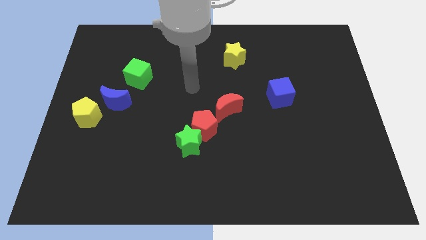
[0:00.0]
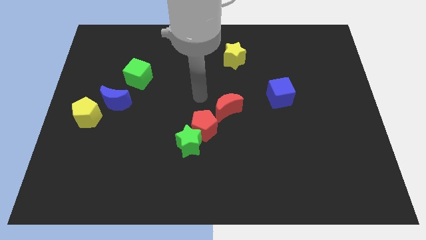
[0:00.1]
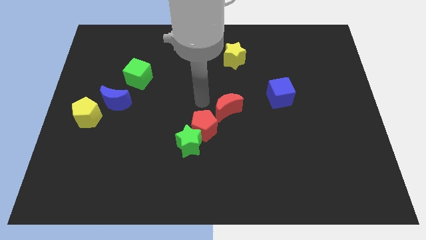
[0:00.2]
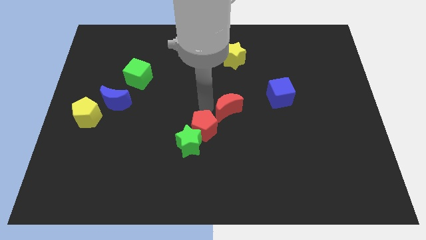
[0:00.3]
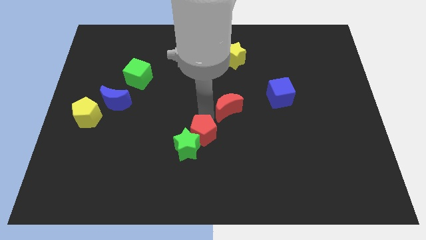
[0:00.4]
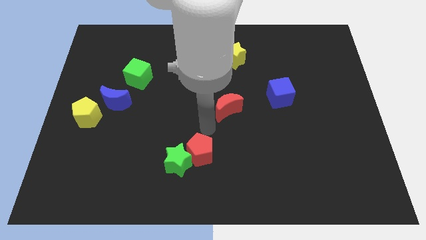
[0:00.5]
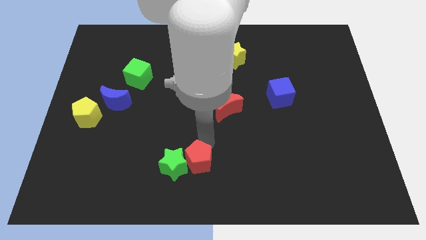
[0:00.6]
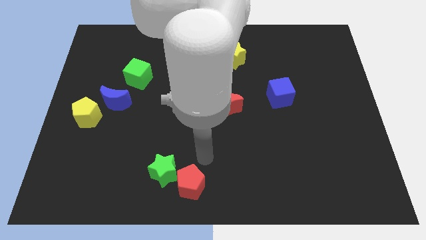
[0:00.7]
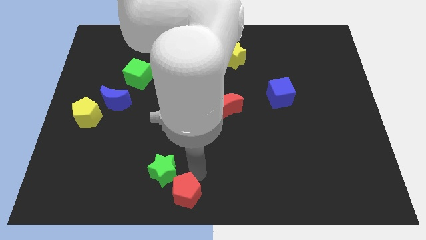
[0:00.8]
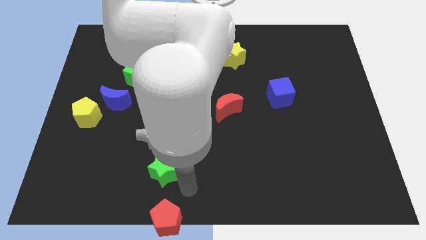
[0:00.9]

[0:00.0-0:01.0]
pull the green star apart from the red pentagon

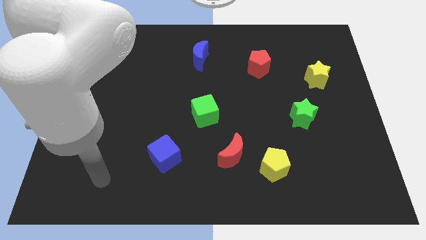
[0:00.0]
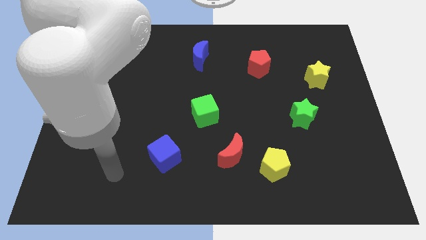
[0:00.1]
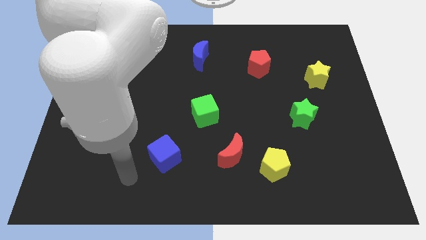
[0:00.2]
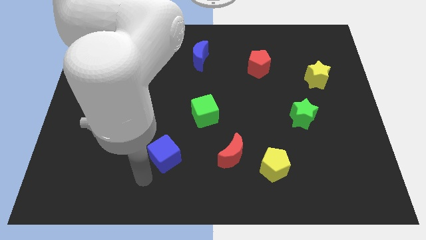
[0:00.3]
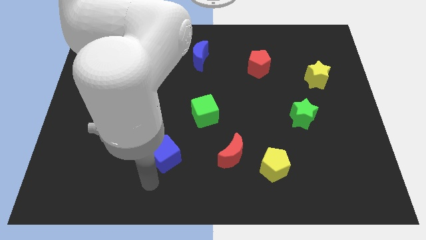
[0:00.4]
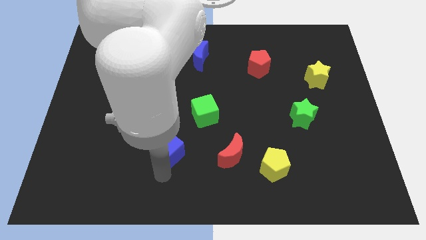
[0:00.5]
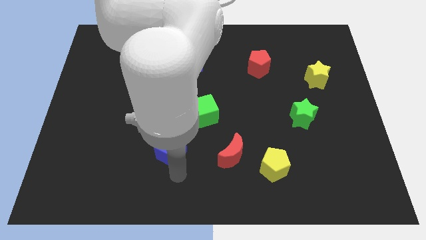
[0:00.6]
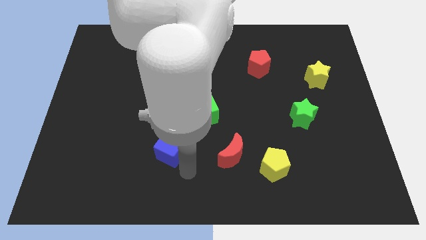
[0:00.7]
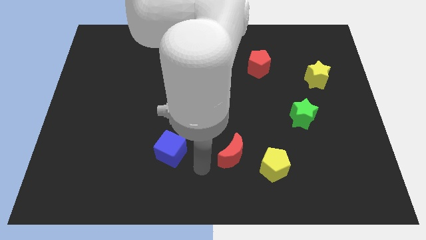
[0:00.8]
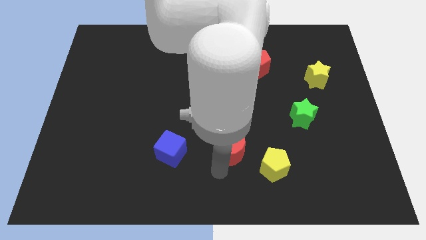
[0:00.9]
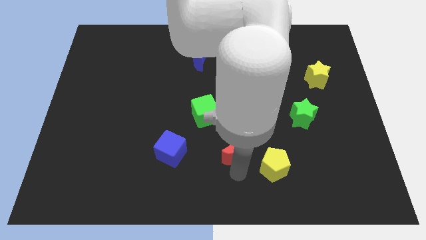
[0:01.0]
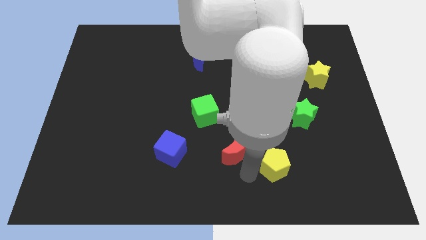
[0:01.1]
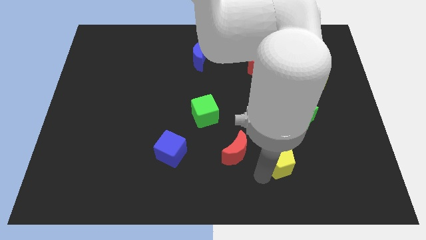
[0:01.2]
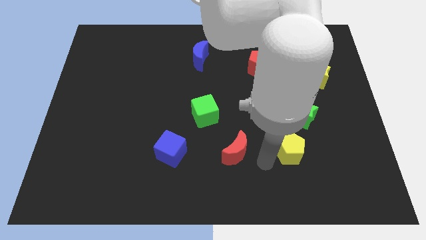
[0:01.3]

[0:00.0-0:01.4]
separate the red moon from the yellow pentagon

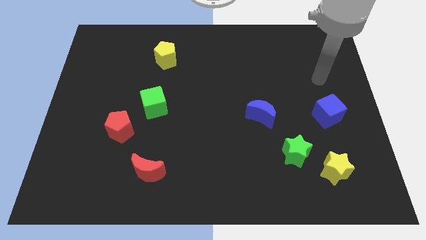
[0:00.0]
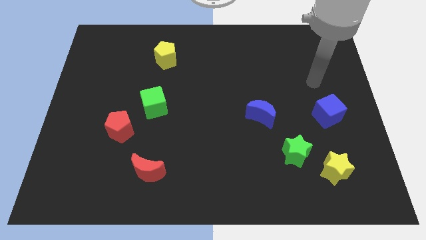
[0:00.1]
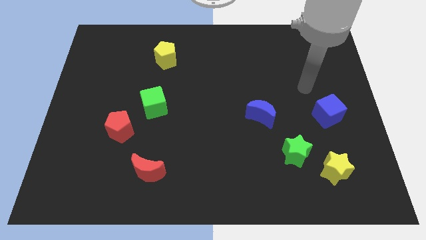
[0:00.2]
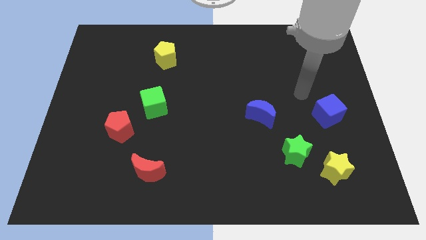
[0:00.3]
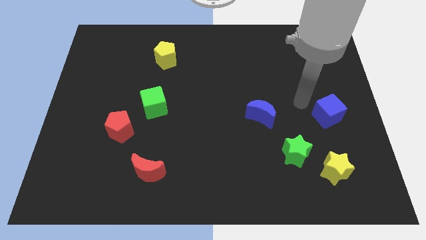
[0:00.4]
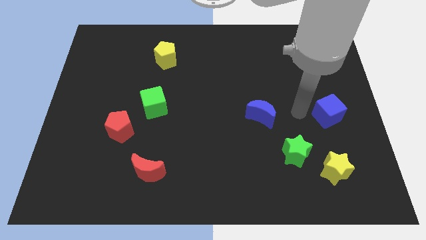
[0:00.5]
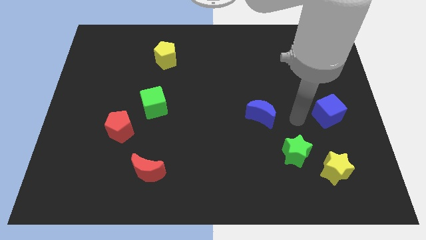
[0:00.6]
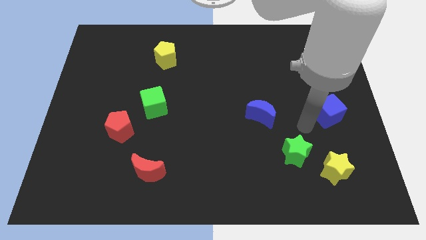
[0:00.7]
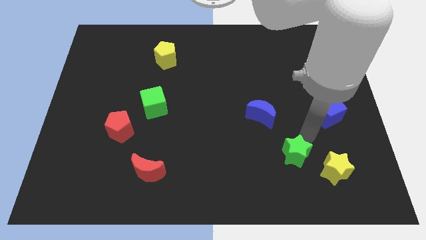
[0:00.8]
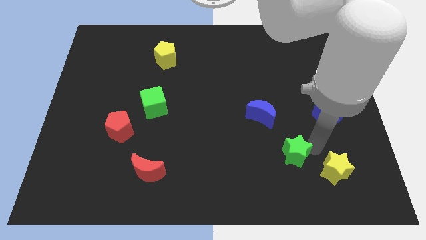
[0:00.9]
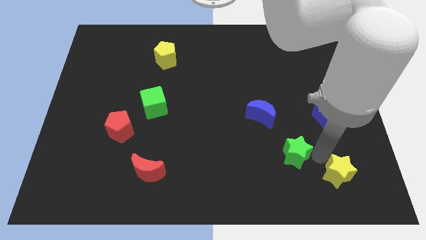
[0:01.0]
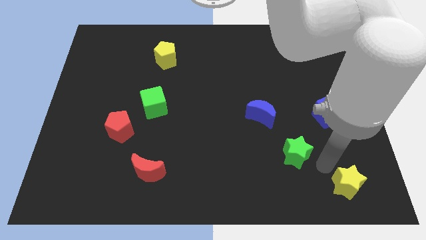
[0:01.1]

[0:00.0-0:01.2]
move the green star away from the yellow star

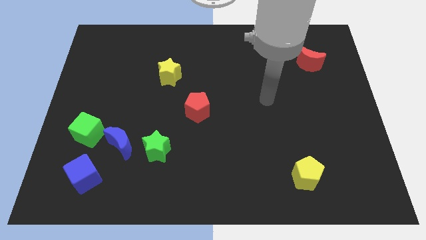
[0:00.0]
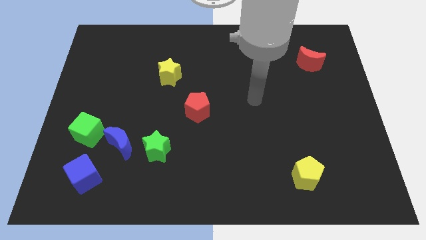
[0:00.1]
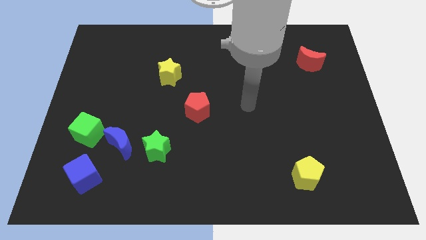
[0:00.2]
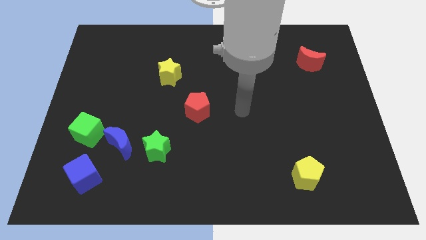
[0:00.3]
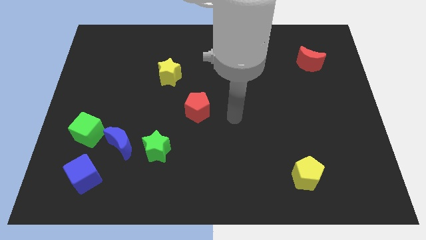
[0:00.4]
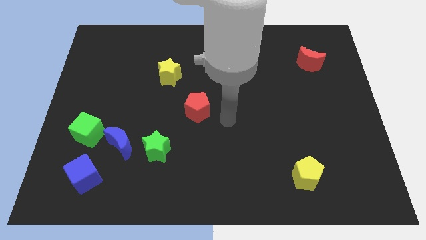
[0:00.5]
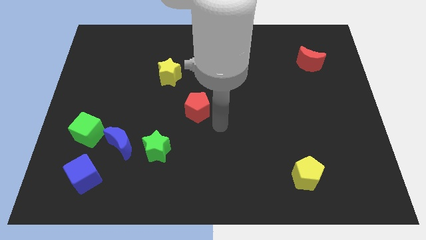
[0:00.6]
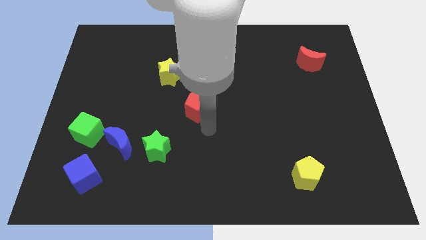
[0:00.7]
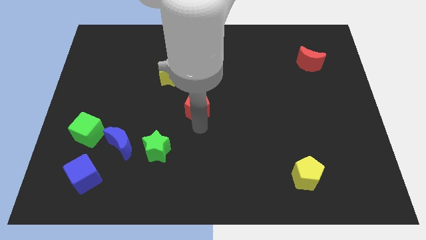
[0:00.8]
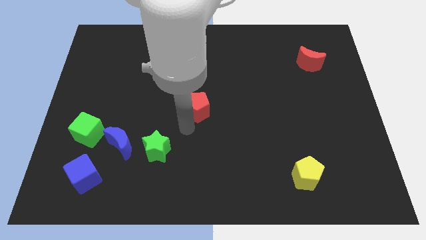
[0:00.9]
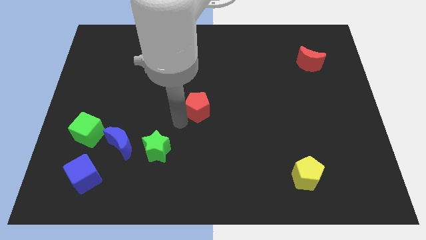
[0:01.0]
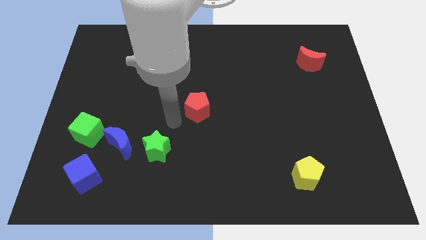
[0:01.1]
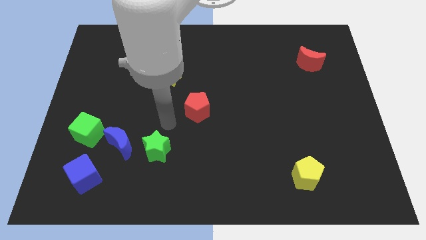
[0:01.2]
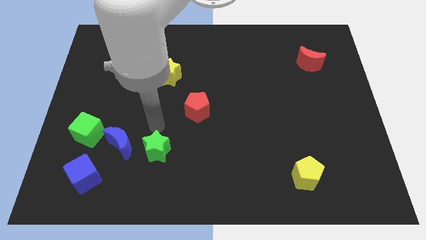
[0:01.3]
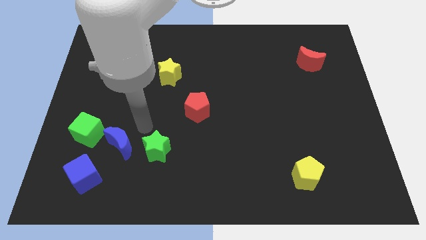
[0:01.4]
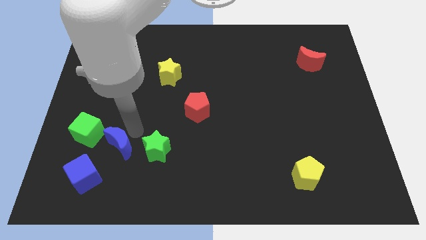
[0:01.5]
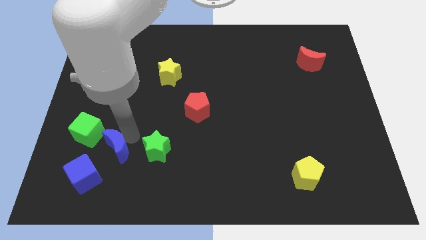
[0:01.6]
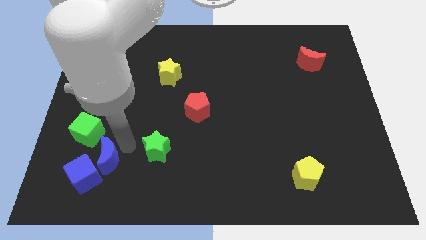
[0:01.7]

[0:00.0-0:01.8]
move the green star away from the blue moon

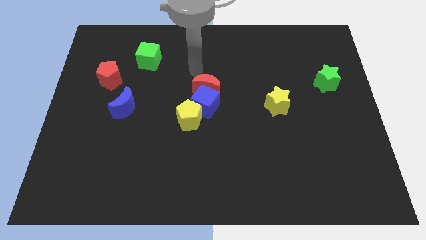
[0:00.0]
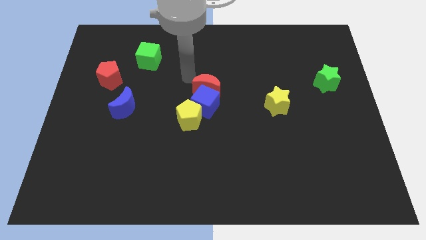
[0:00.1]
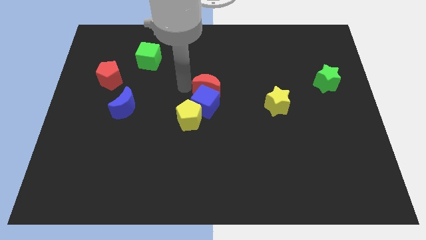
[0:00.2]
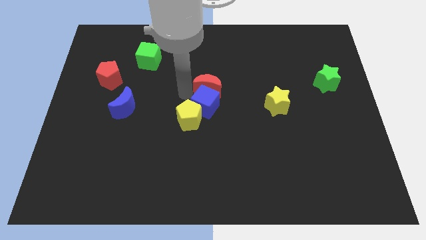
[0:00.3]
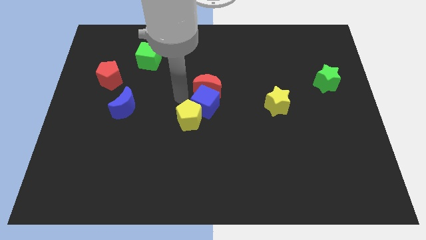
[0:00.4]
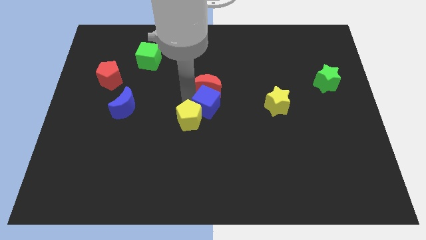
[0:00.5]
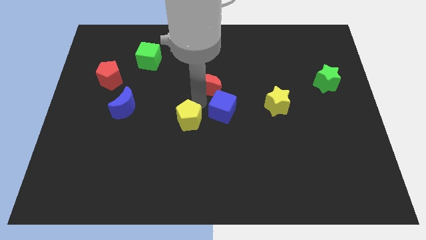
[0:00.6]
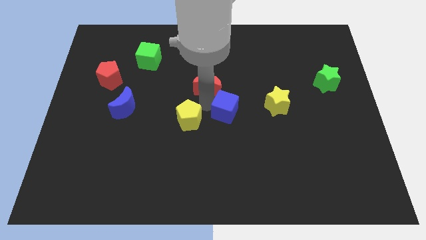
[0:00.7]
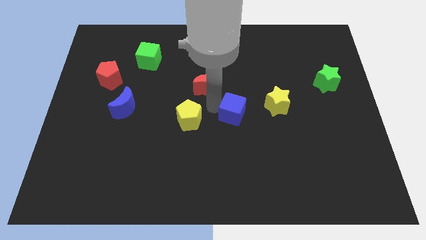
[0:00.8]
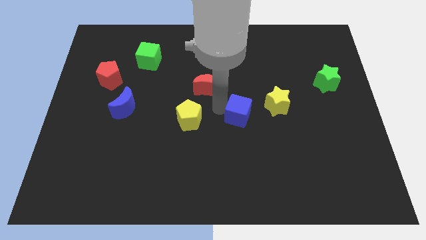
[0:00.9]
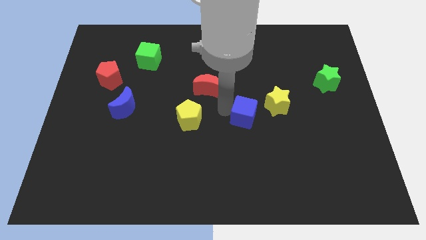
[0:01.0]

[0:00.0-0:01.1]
pull the blue cube apart from the red moon and yellow pentagon

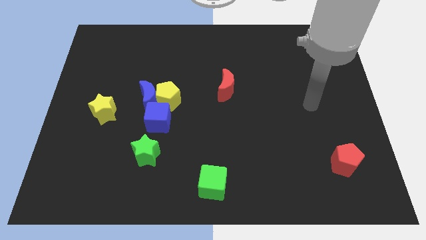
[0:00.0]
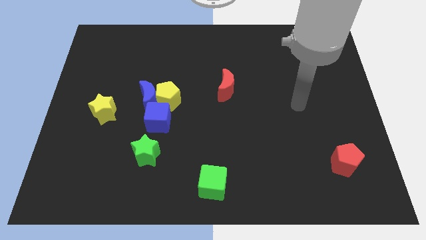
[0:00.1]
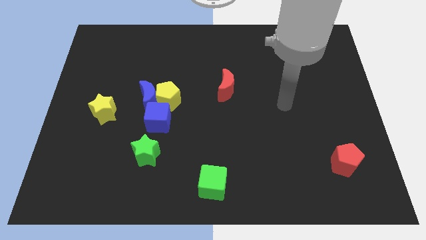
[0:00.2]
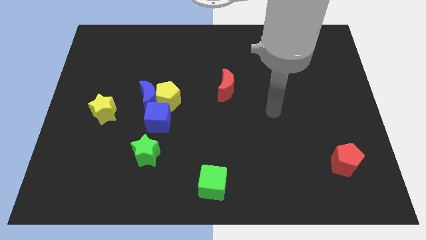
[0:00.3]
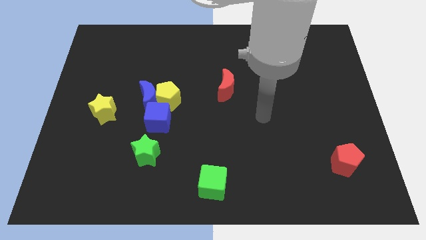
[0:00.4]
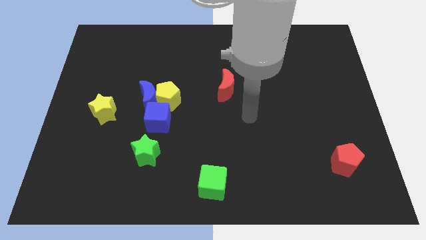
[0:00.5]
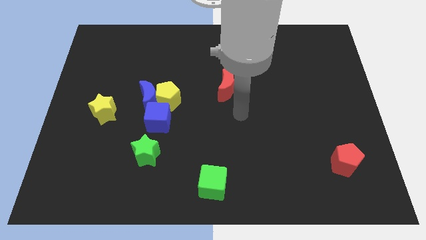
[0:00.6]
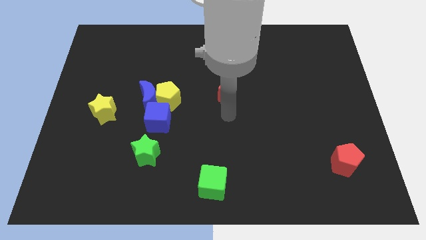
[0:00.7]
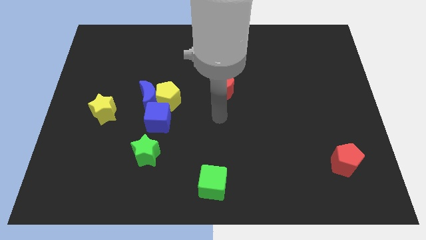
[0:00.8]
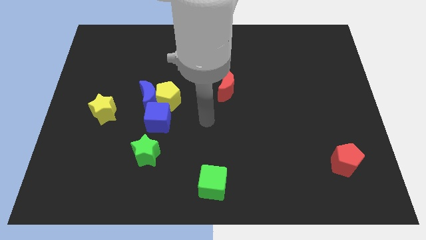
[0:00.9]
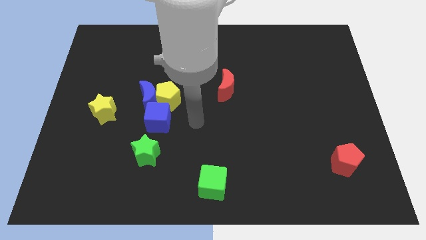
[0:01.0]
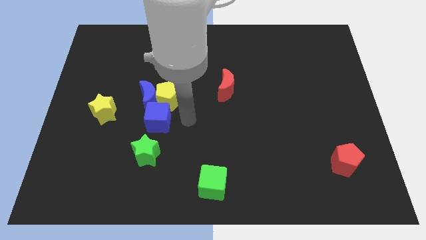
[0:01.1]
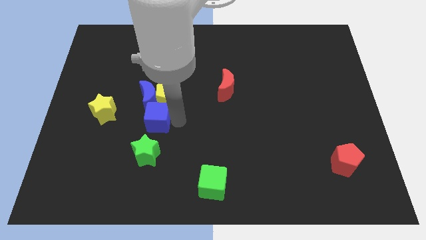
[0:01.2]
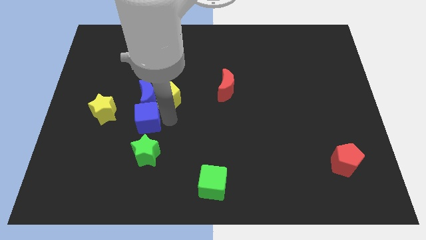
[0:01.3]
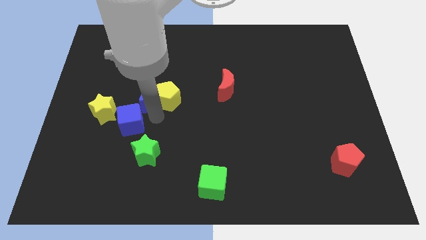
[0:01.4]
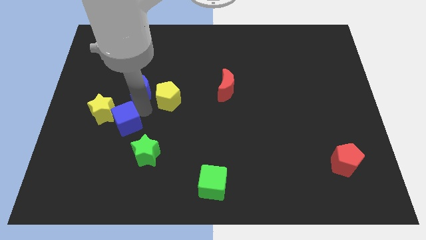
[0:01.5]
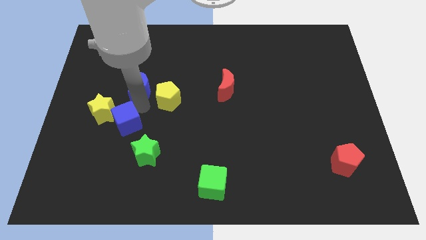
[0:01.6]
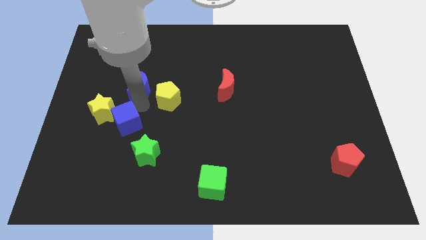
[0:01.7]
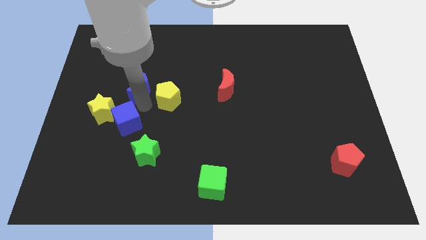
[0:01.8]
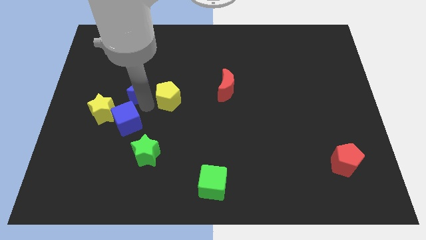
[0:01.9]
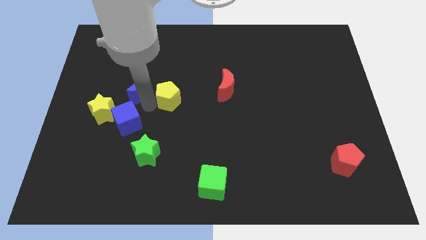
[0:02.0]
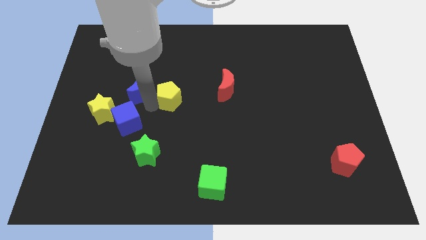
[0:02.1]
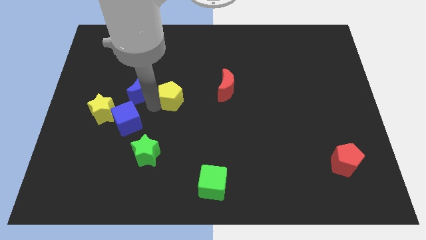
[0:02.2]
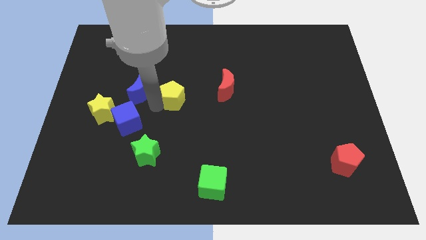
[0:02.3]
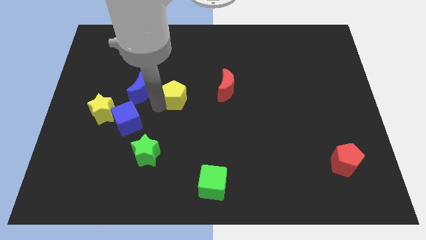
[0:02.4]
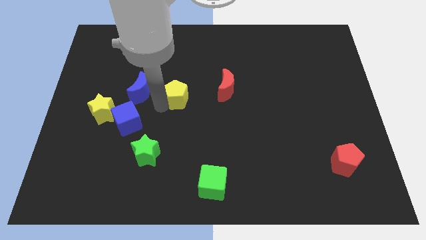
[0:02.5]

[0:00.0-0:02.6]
pull the yellow pentagon apart from the blue moon and blue cube

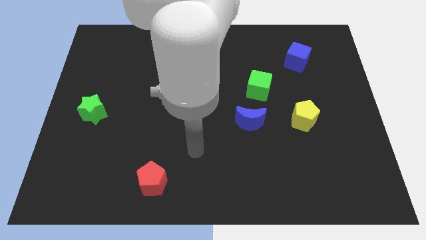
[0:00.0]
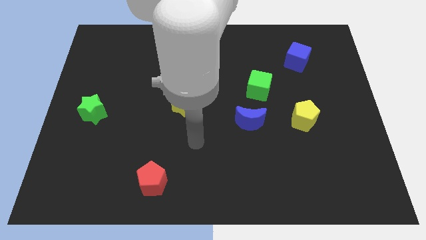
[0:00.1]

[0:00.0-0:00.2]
separate the red moon from the yellow star
